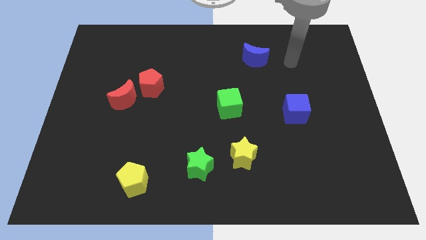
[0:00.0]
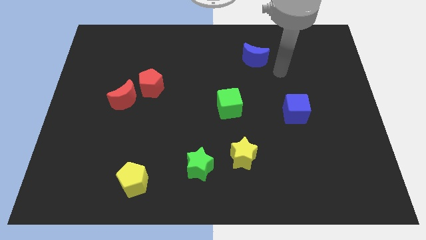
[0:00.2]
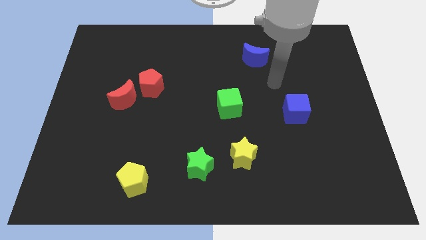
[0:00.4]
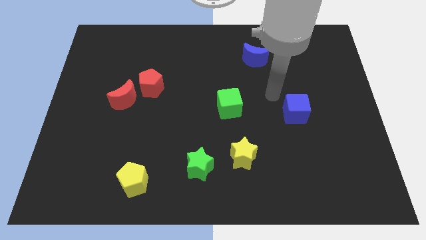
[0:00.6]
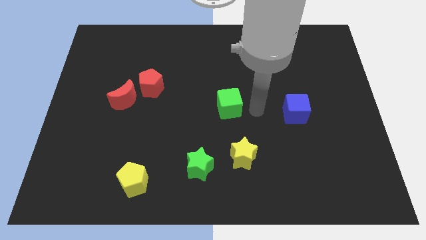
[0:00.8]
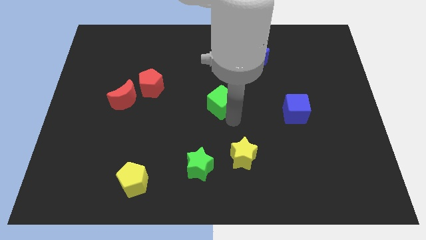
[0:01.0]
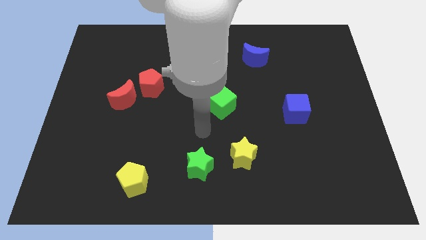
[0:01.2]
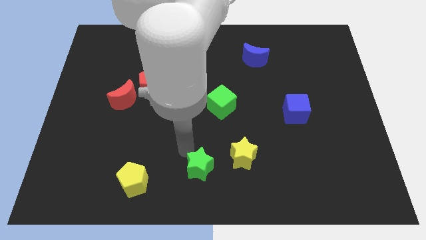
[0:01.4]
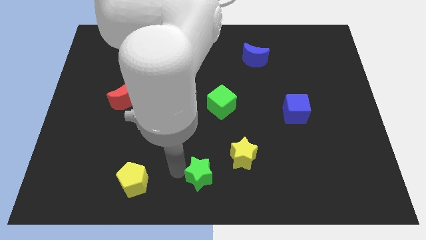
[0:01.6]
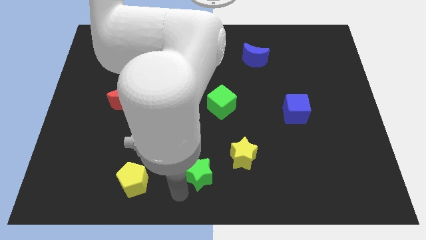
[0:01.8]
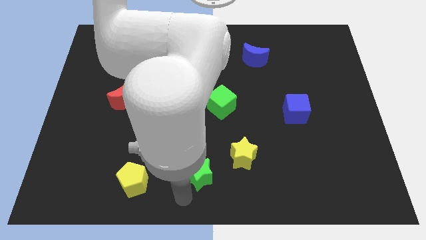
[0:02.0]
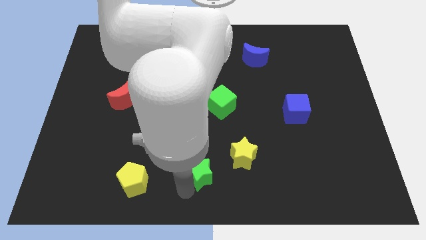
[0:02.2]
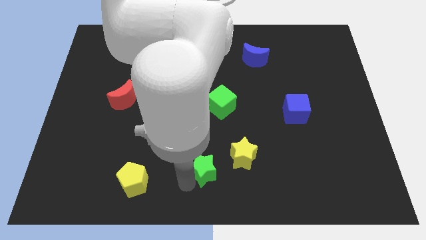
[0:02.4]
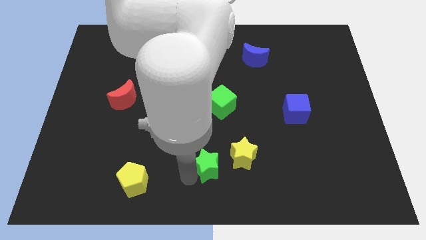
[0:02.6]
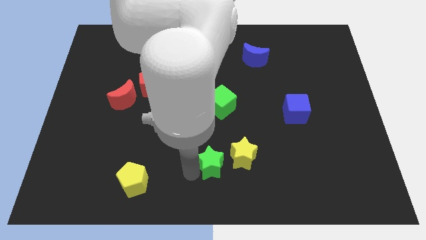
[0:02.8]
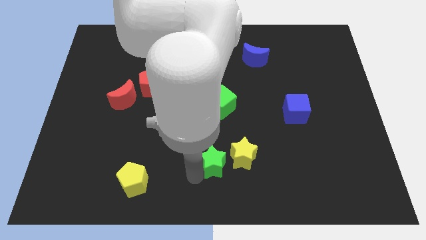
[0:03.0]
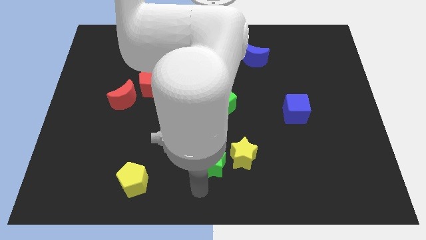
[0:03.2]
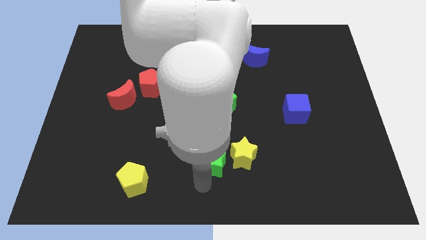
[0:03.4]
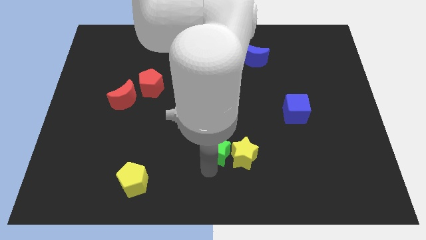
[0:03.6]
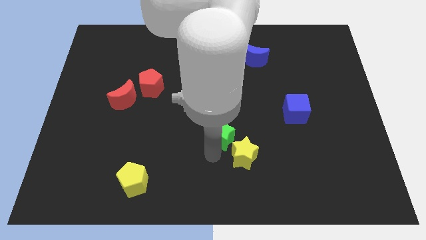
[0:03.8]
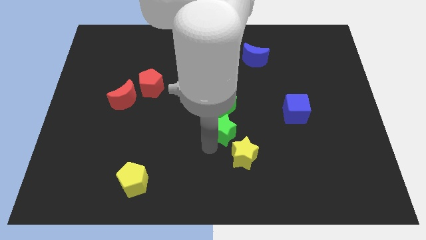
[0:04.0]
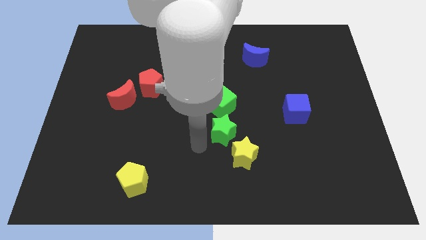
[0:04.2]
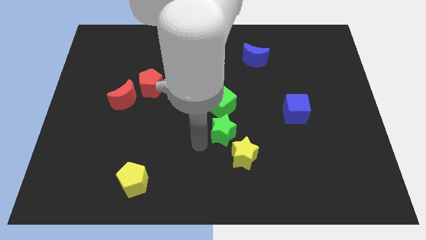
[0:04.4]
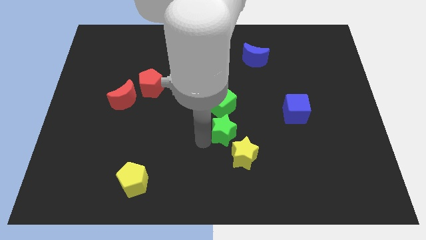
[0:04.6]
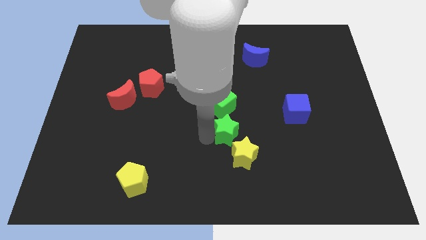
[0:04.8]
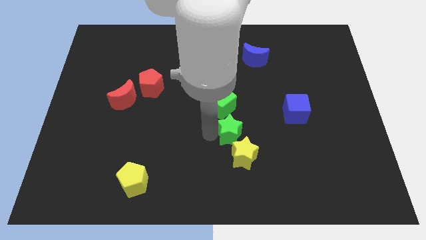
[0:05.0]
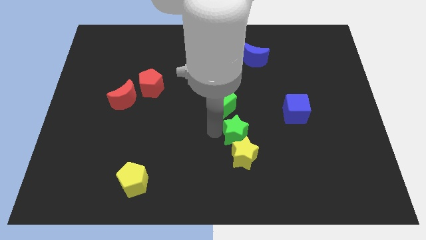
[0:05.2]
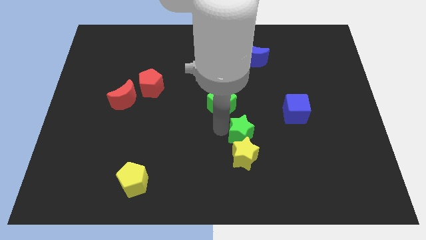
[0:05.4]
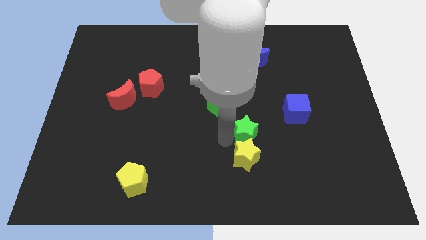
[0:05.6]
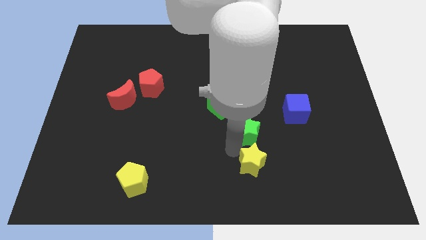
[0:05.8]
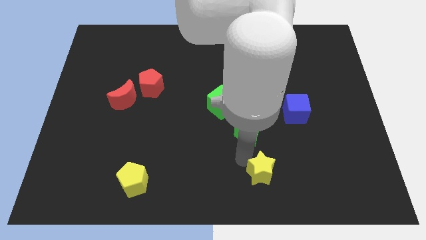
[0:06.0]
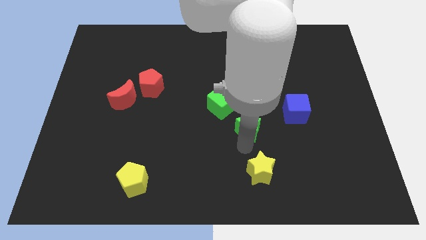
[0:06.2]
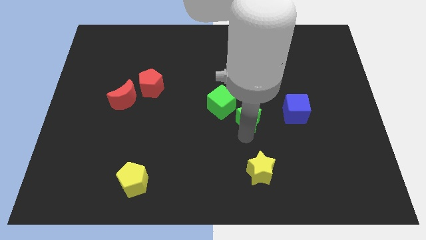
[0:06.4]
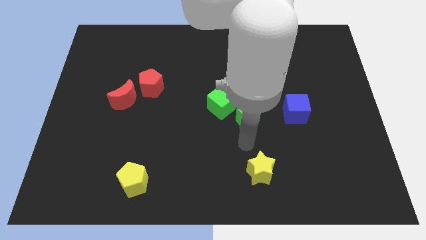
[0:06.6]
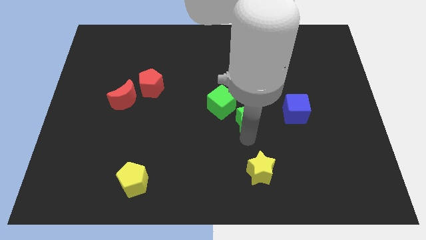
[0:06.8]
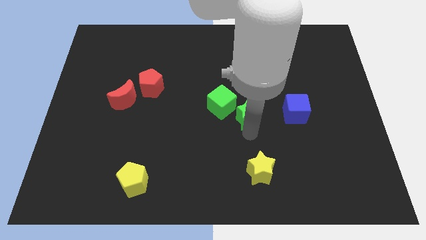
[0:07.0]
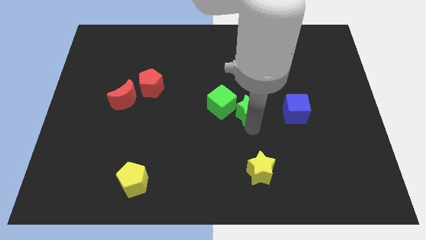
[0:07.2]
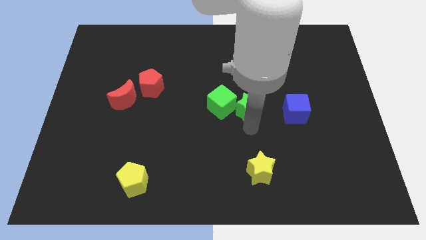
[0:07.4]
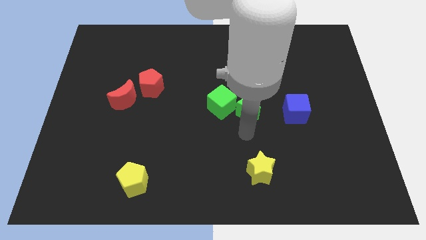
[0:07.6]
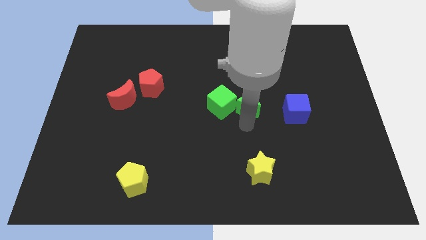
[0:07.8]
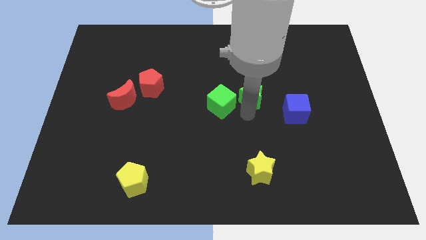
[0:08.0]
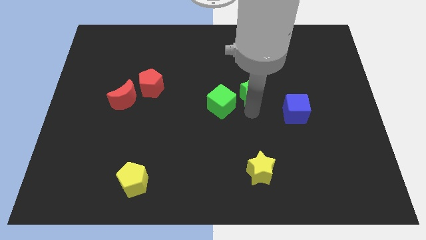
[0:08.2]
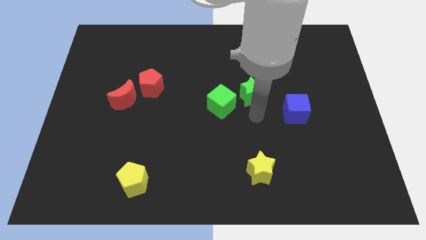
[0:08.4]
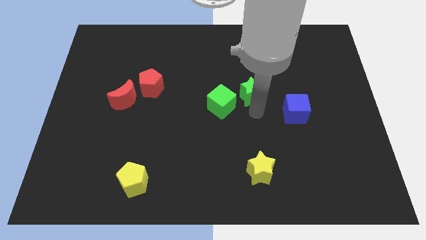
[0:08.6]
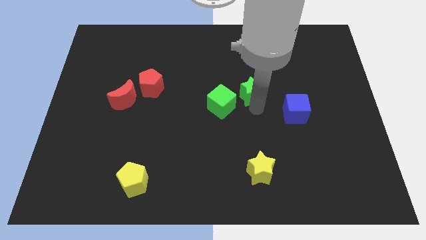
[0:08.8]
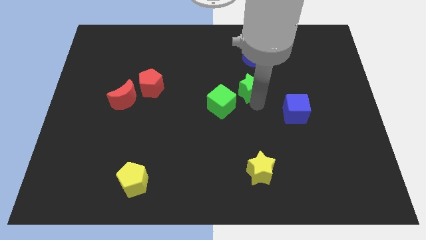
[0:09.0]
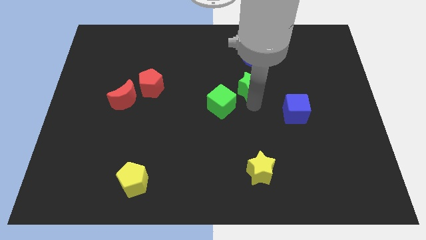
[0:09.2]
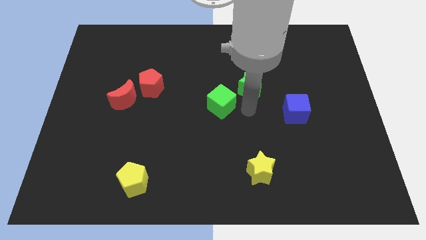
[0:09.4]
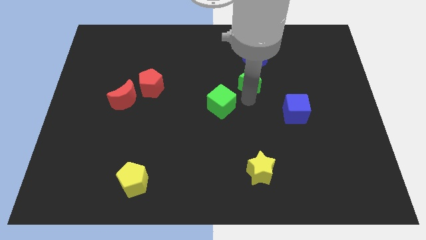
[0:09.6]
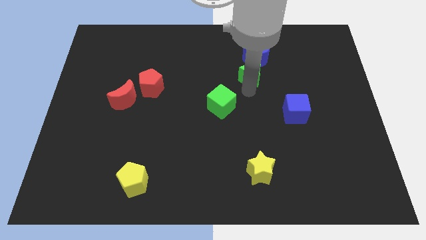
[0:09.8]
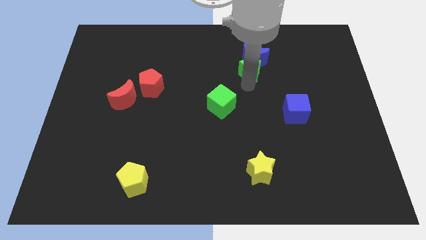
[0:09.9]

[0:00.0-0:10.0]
slide the green star close to the blue moon

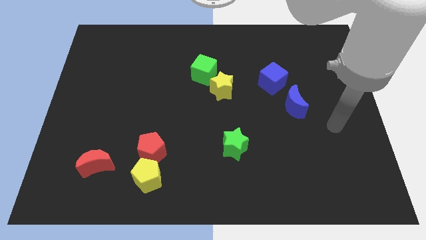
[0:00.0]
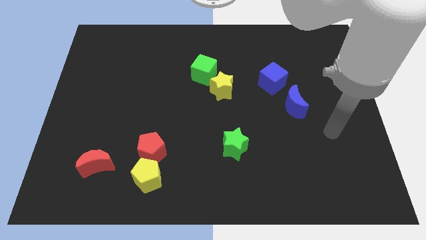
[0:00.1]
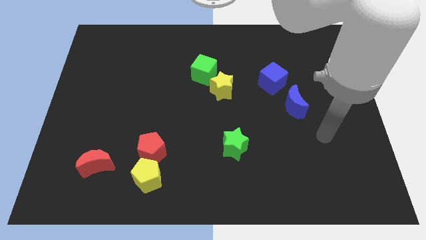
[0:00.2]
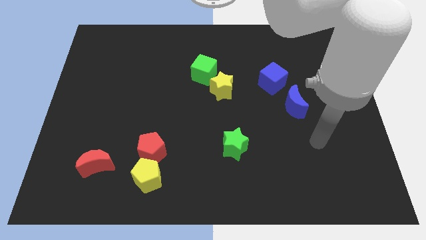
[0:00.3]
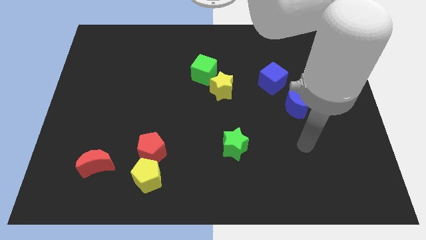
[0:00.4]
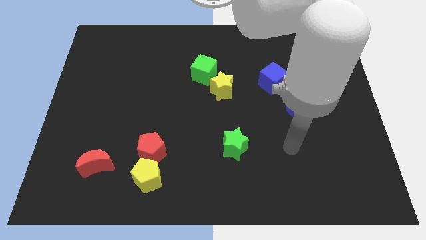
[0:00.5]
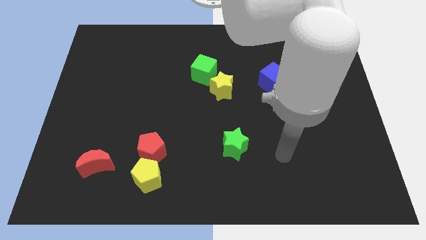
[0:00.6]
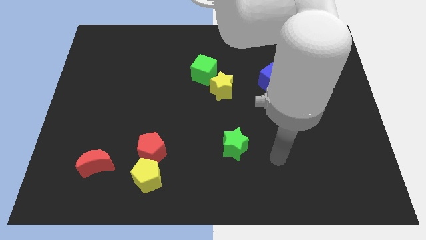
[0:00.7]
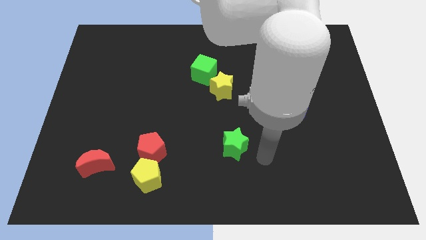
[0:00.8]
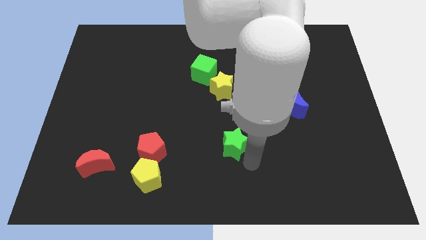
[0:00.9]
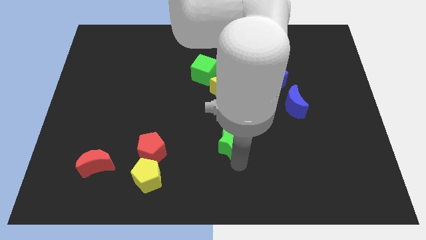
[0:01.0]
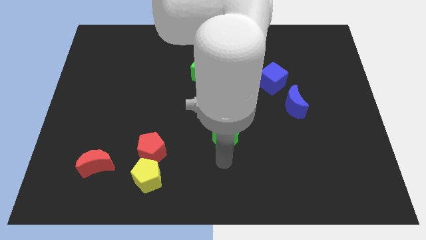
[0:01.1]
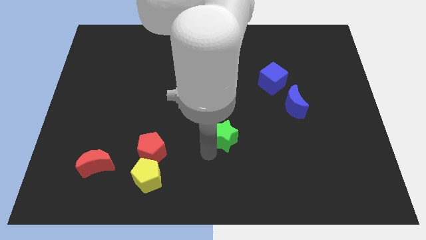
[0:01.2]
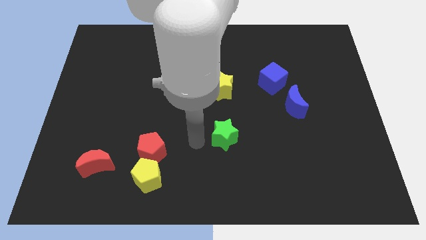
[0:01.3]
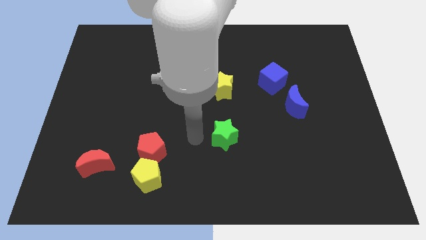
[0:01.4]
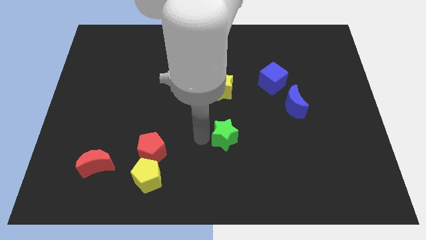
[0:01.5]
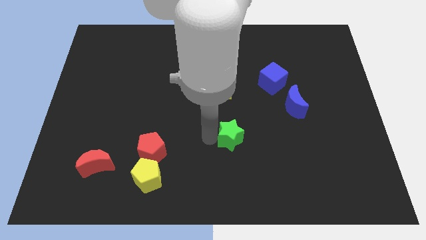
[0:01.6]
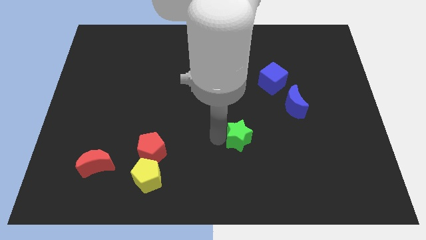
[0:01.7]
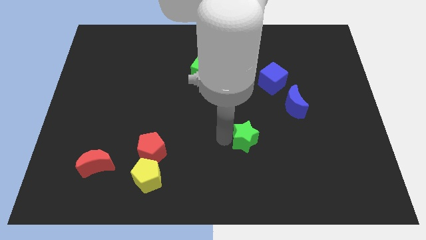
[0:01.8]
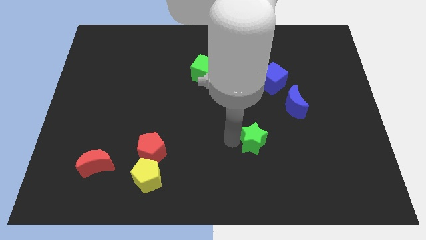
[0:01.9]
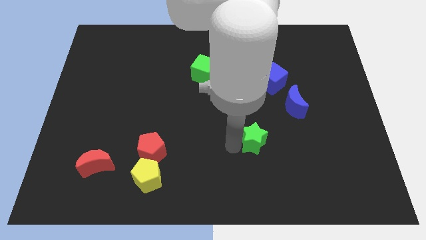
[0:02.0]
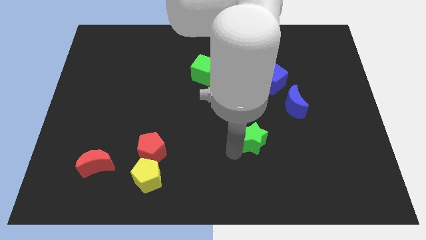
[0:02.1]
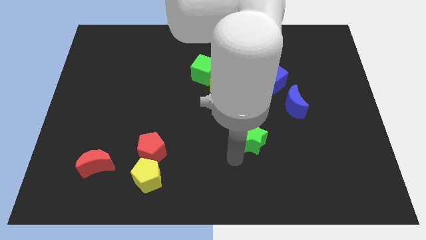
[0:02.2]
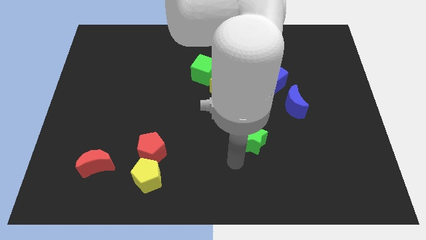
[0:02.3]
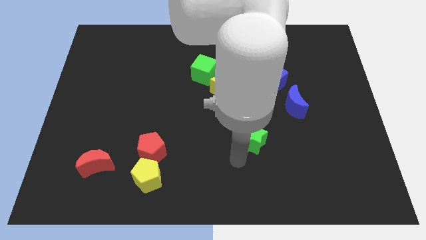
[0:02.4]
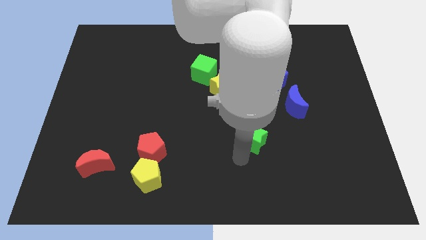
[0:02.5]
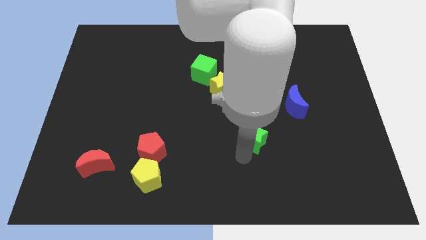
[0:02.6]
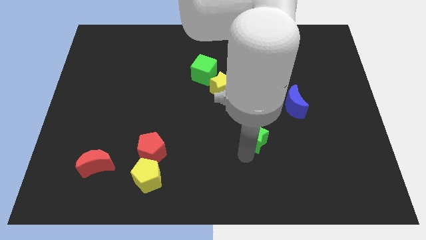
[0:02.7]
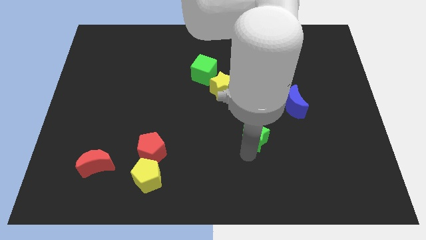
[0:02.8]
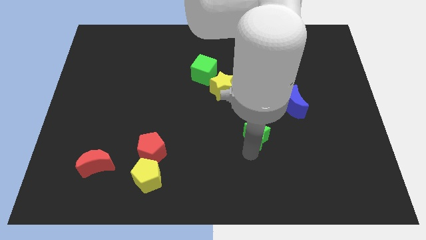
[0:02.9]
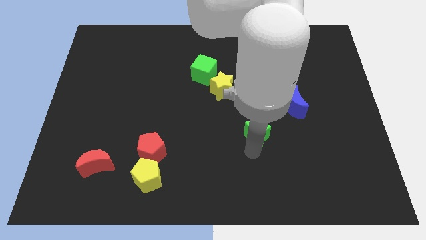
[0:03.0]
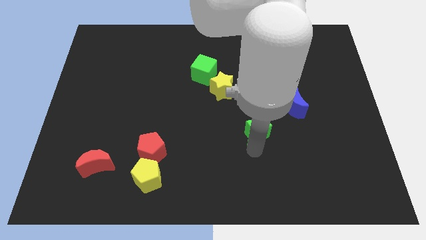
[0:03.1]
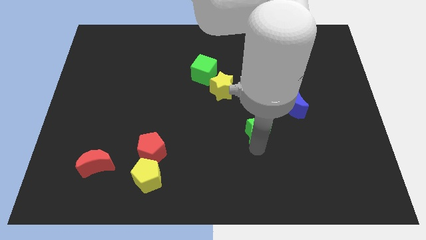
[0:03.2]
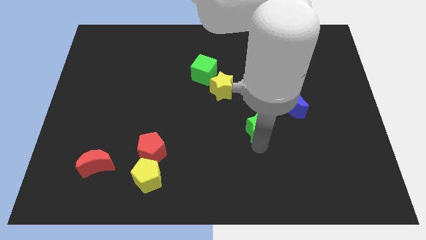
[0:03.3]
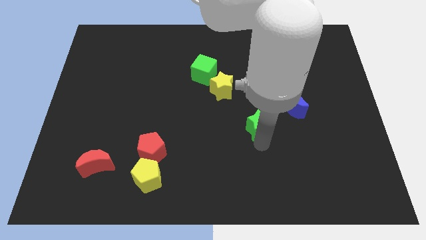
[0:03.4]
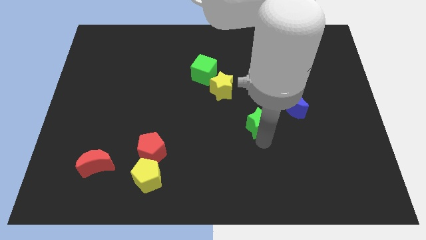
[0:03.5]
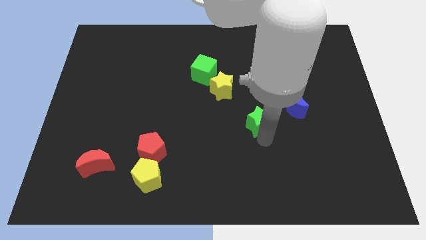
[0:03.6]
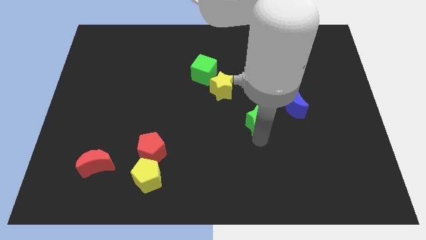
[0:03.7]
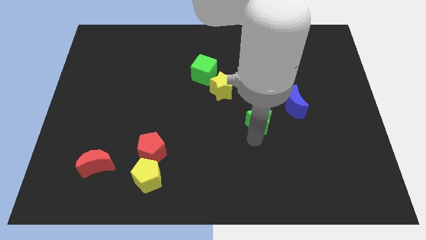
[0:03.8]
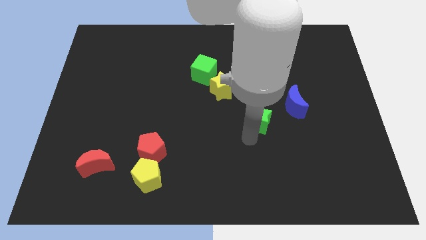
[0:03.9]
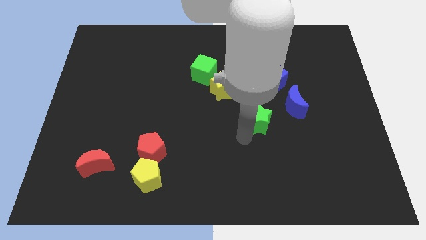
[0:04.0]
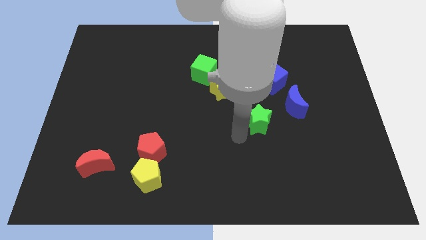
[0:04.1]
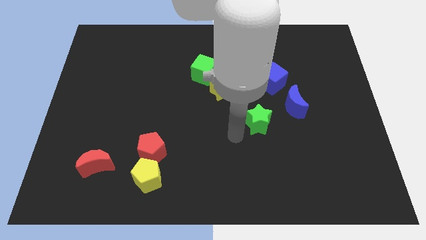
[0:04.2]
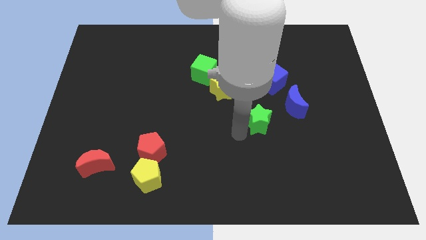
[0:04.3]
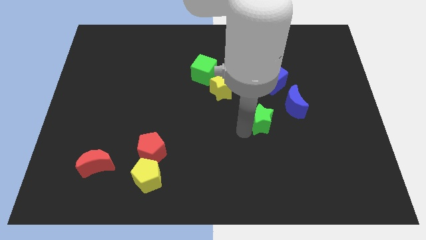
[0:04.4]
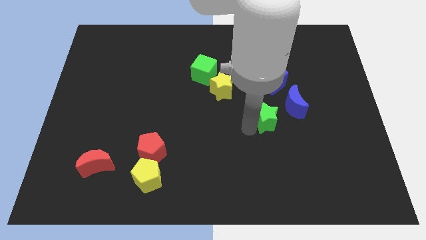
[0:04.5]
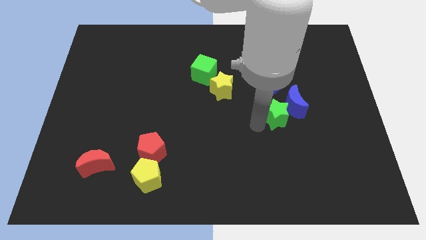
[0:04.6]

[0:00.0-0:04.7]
push the green star close to the blue moon
